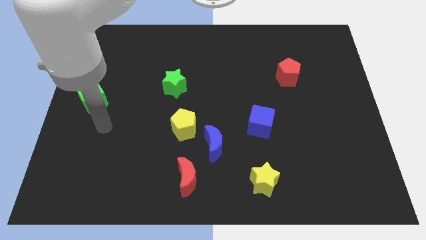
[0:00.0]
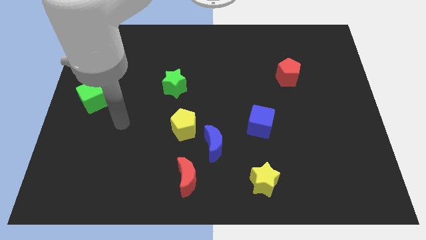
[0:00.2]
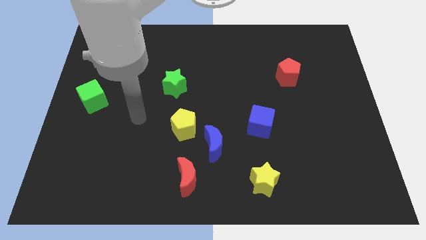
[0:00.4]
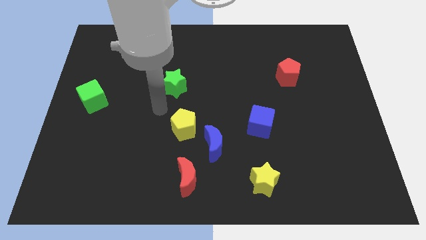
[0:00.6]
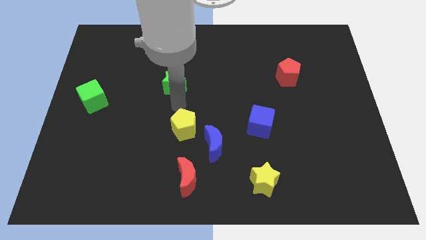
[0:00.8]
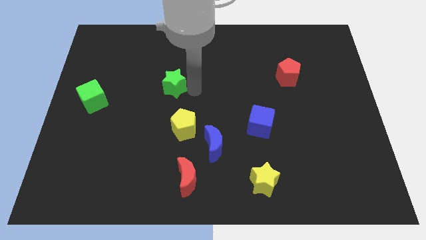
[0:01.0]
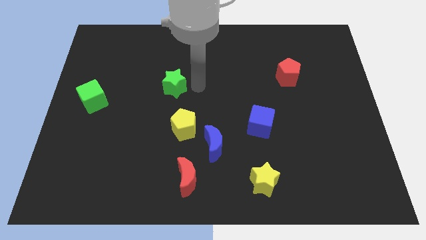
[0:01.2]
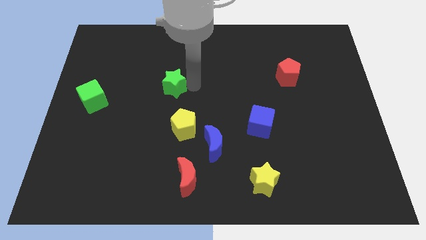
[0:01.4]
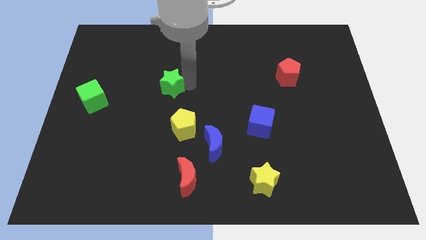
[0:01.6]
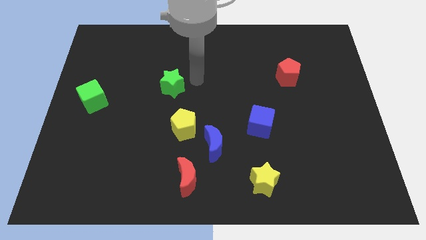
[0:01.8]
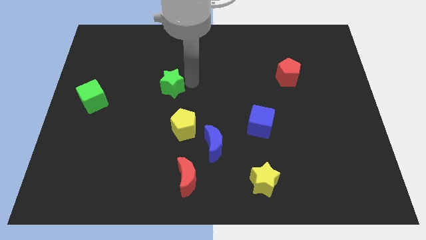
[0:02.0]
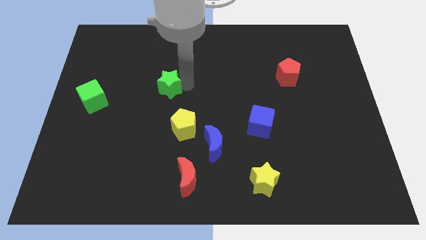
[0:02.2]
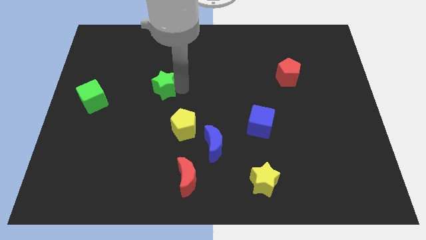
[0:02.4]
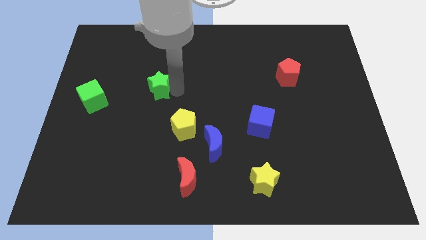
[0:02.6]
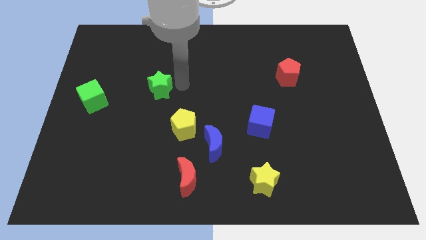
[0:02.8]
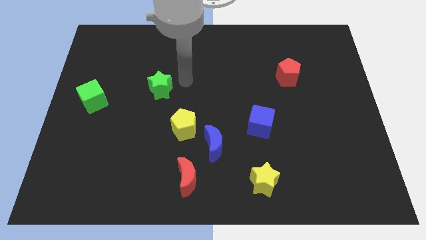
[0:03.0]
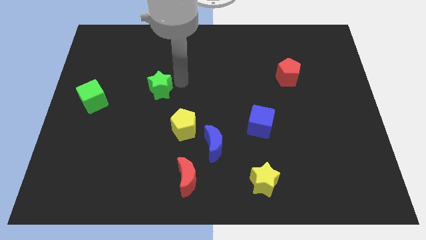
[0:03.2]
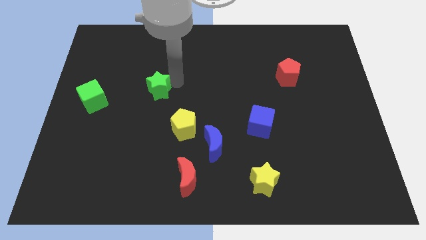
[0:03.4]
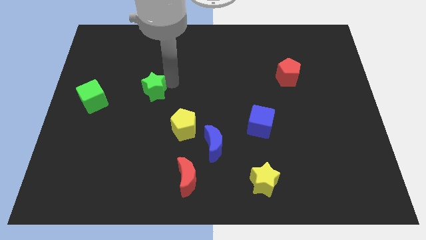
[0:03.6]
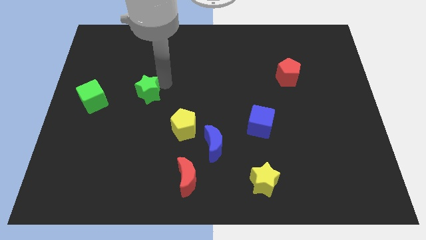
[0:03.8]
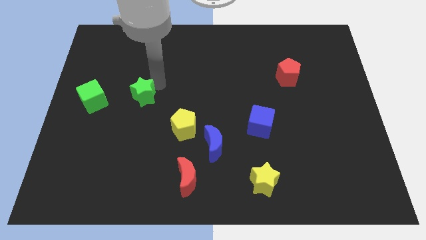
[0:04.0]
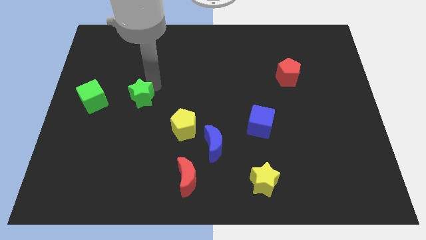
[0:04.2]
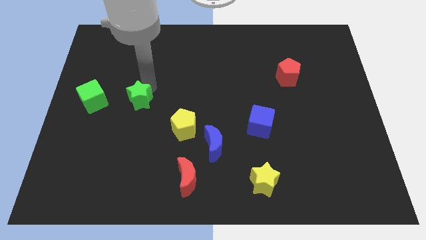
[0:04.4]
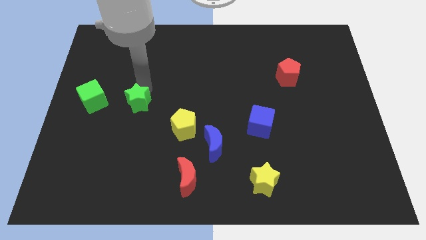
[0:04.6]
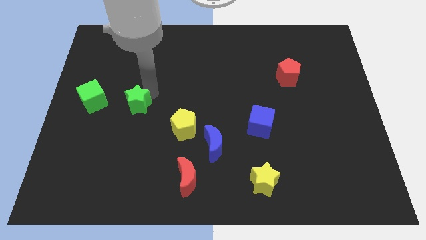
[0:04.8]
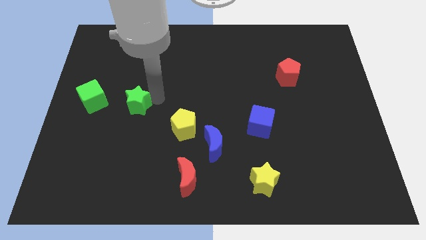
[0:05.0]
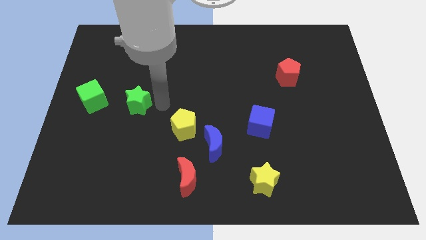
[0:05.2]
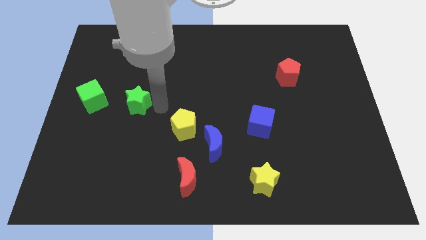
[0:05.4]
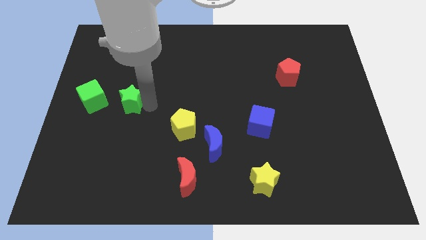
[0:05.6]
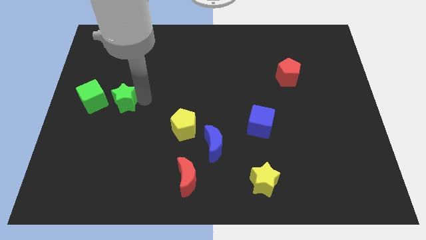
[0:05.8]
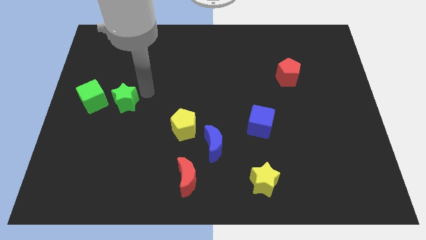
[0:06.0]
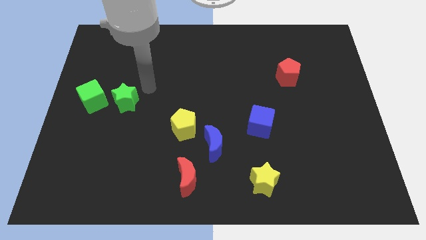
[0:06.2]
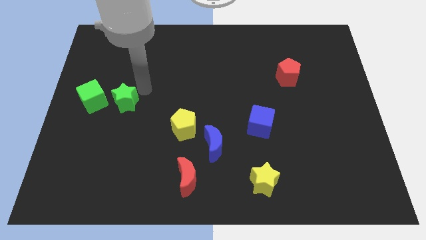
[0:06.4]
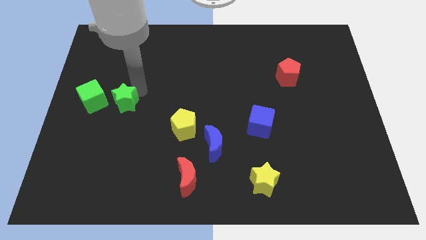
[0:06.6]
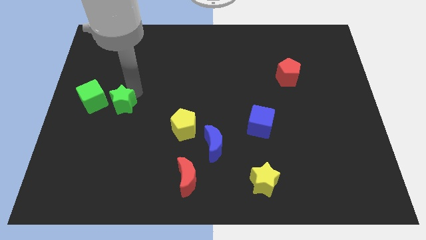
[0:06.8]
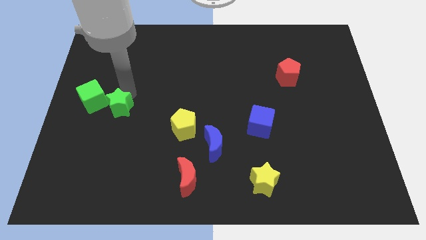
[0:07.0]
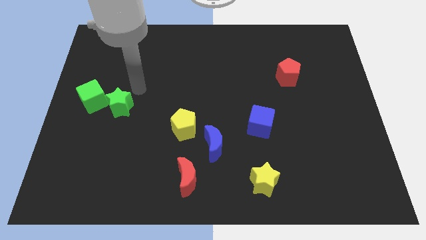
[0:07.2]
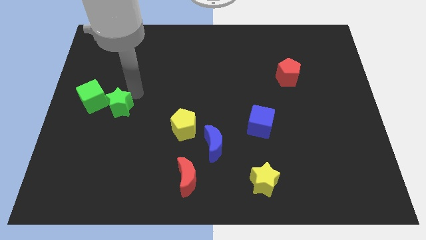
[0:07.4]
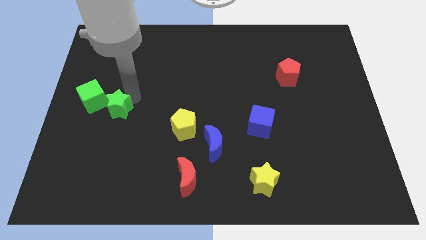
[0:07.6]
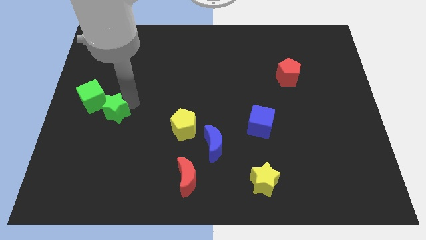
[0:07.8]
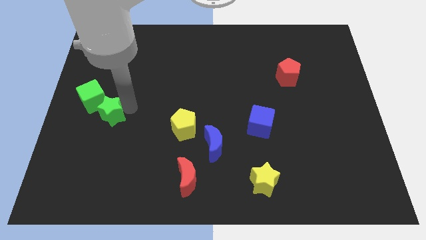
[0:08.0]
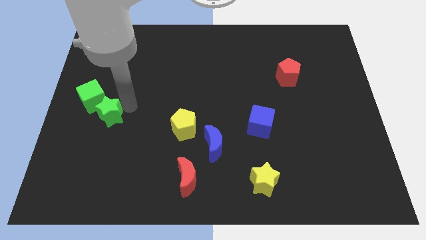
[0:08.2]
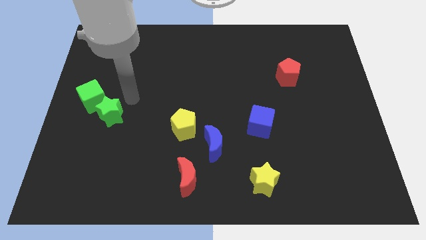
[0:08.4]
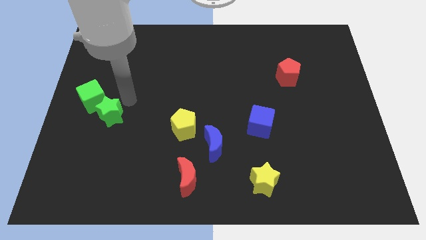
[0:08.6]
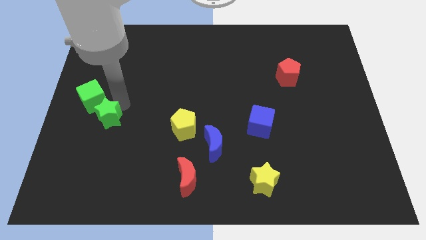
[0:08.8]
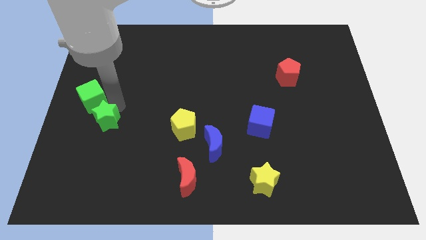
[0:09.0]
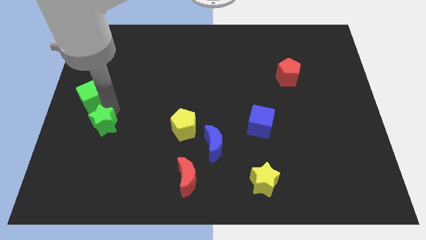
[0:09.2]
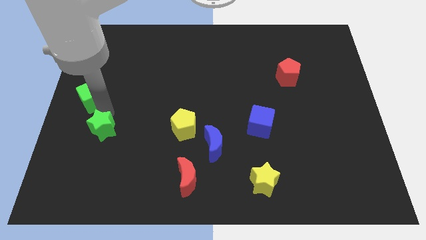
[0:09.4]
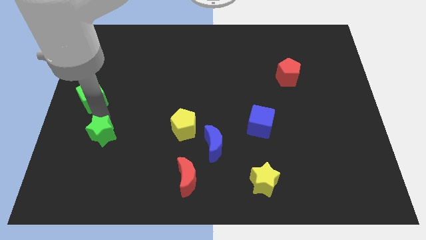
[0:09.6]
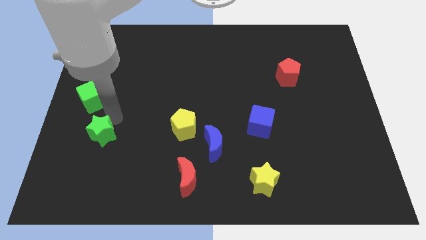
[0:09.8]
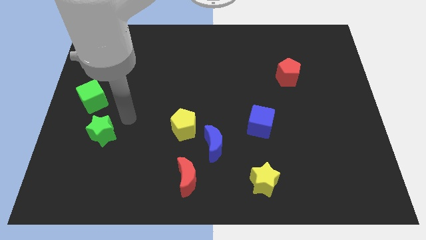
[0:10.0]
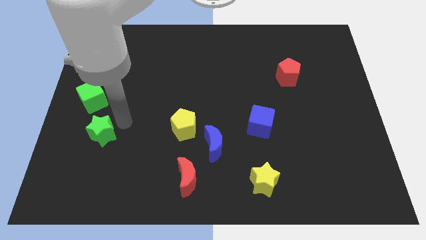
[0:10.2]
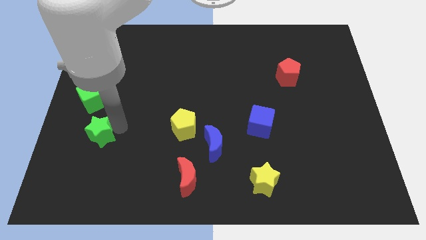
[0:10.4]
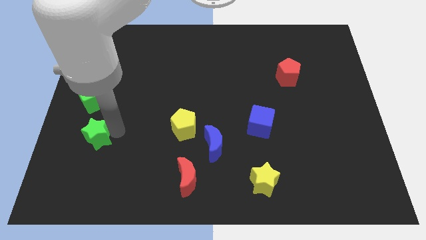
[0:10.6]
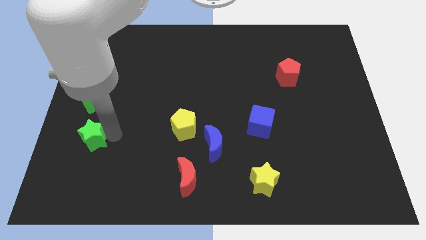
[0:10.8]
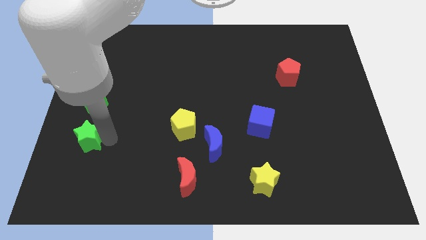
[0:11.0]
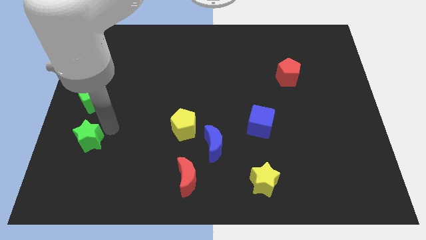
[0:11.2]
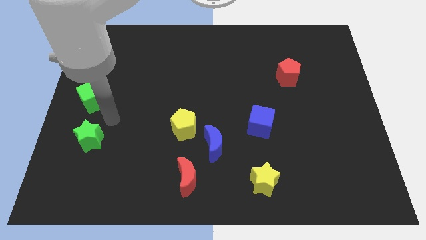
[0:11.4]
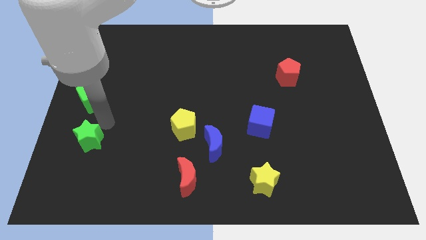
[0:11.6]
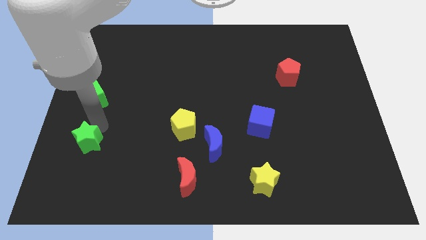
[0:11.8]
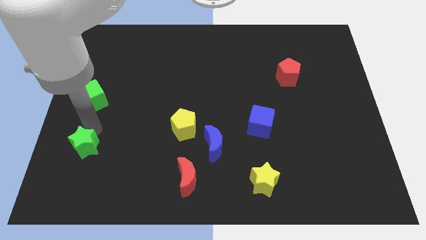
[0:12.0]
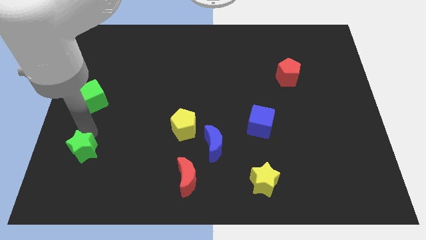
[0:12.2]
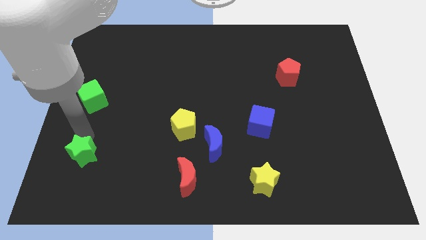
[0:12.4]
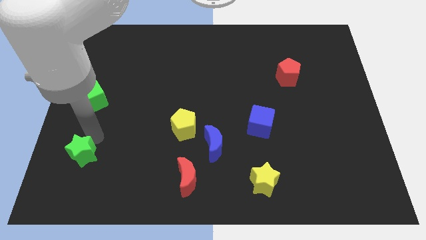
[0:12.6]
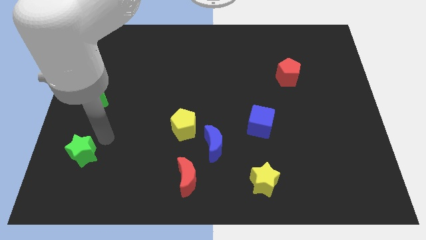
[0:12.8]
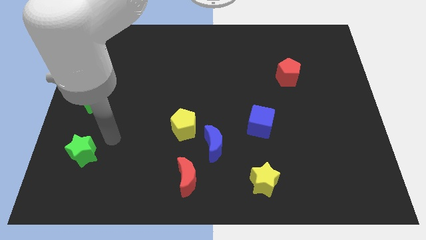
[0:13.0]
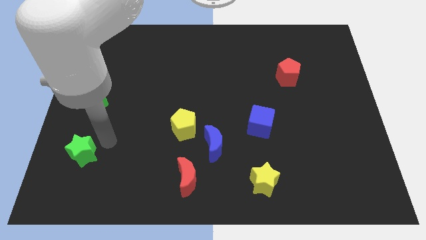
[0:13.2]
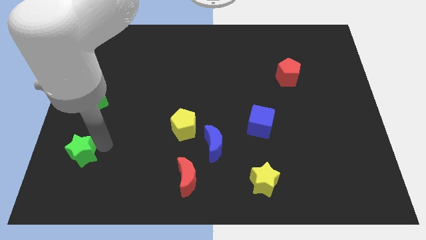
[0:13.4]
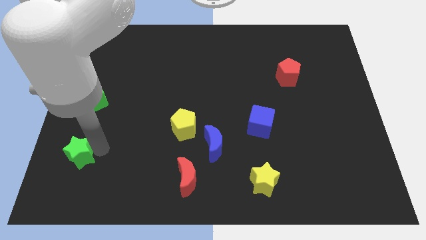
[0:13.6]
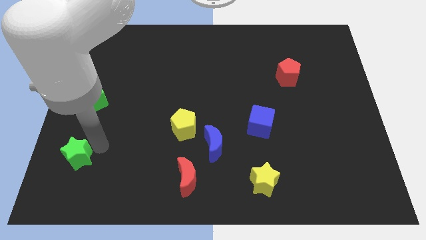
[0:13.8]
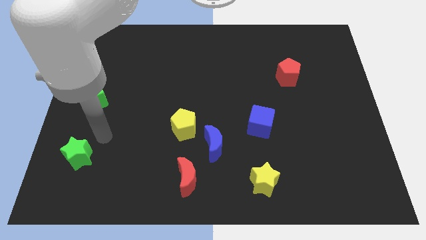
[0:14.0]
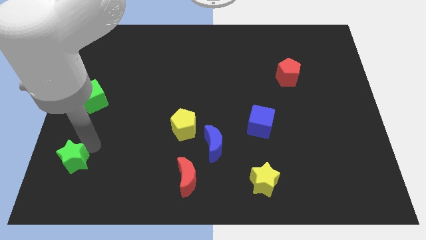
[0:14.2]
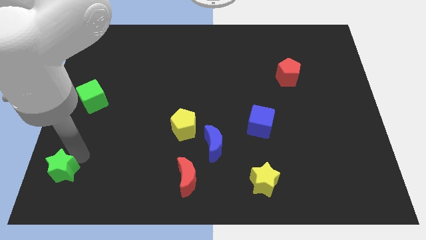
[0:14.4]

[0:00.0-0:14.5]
put the green star to the bottom left corner
